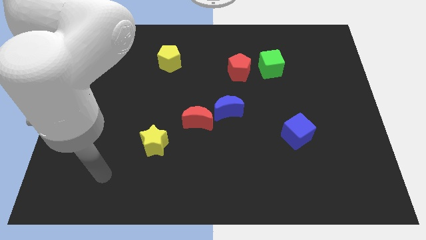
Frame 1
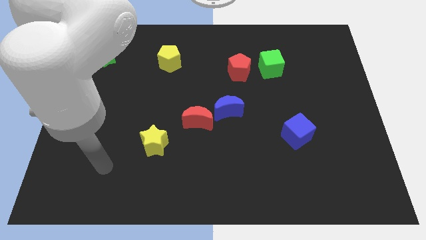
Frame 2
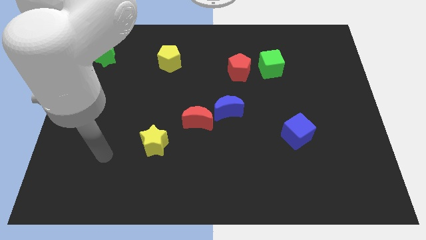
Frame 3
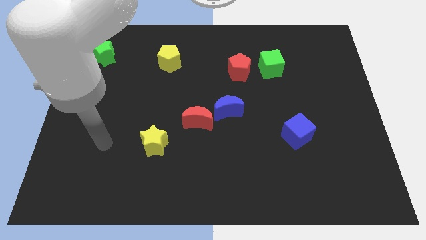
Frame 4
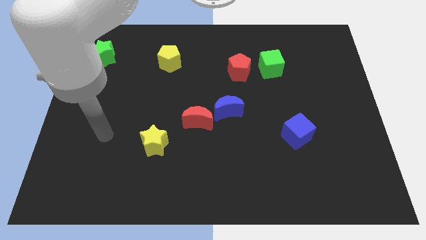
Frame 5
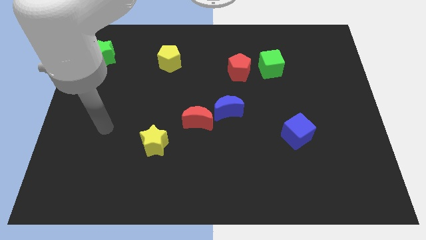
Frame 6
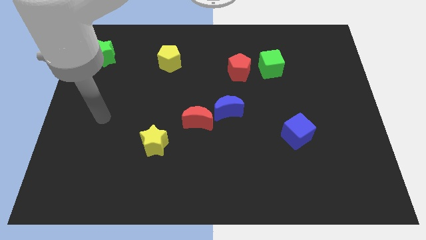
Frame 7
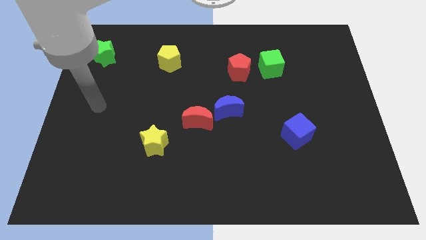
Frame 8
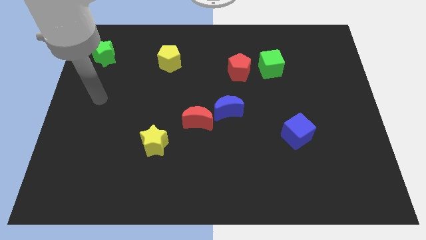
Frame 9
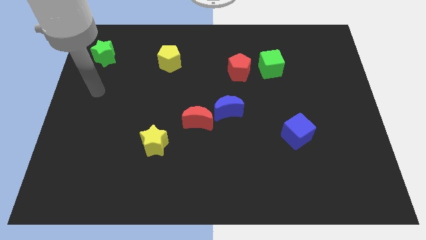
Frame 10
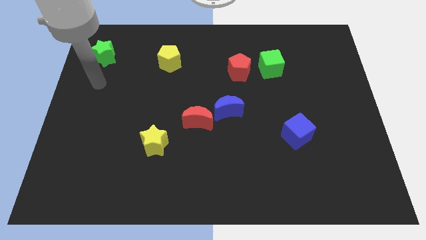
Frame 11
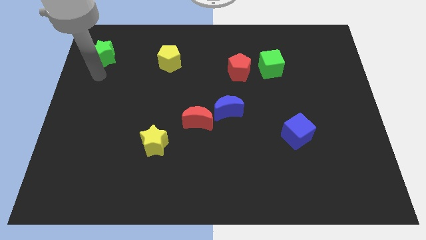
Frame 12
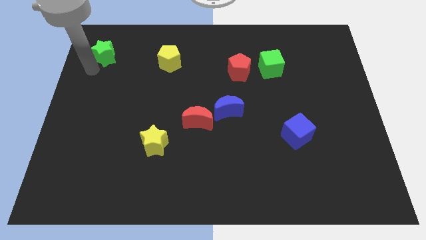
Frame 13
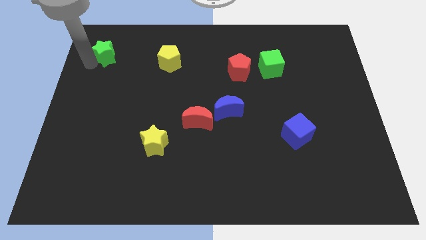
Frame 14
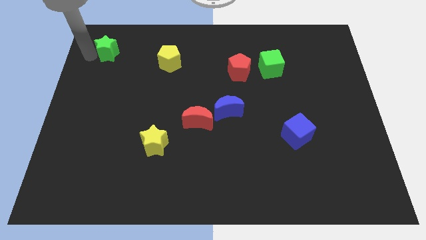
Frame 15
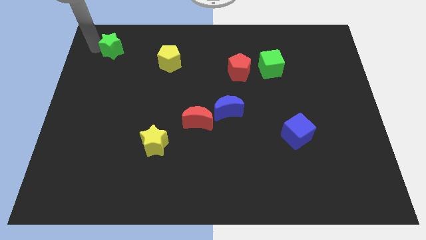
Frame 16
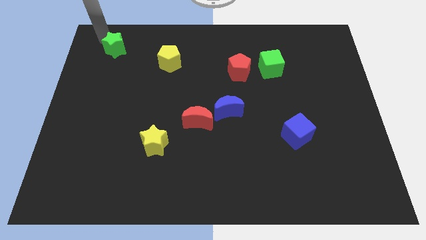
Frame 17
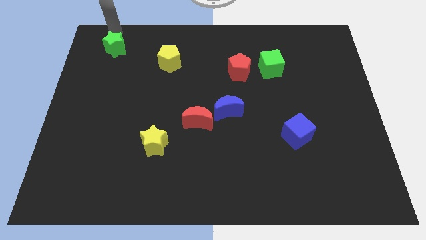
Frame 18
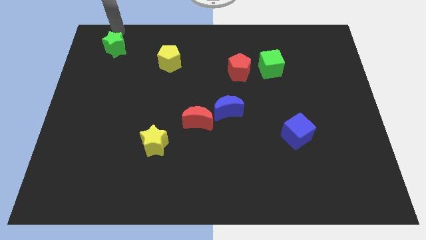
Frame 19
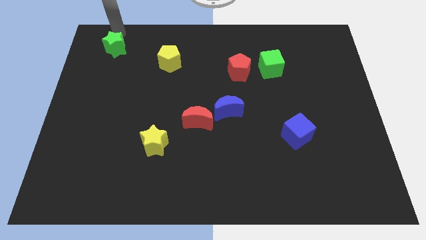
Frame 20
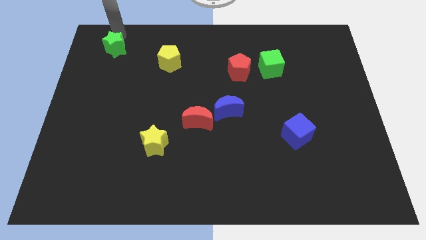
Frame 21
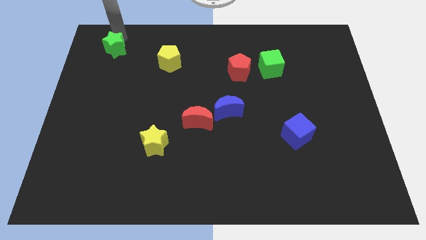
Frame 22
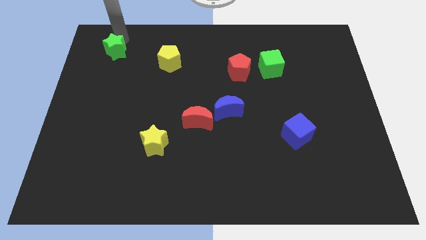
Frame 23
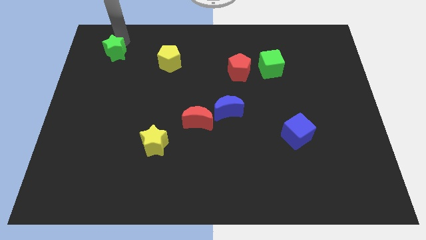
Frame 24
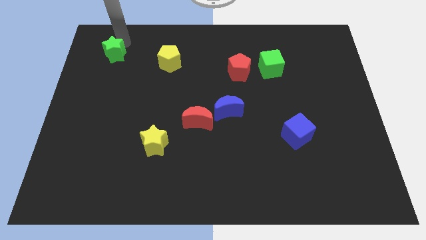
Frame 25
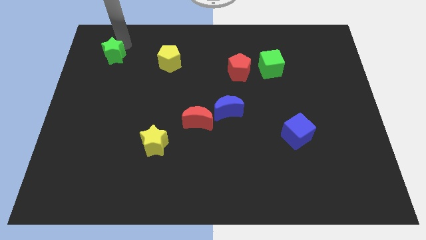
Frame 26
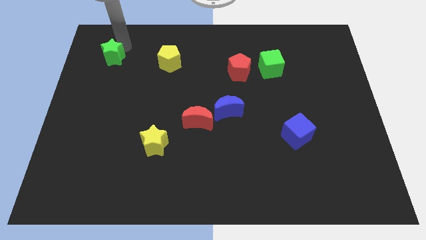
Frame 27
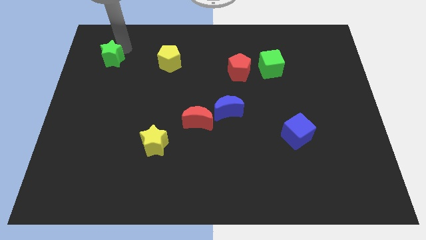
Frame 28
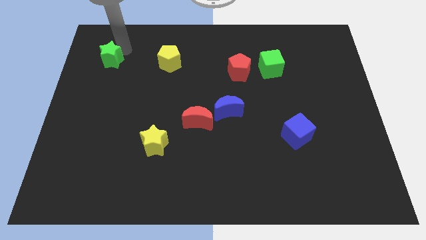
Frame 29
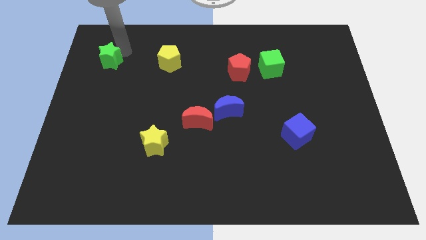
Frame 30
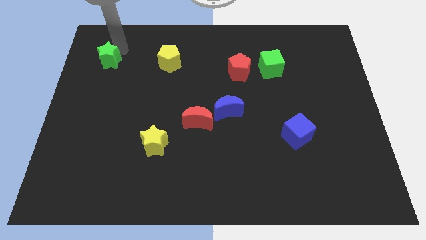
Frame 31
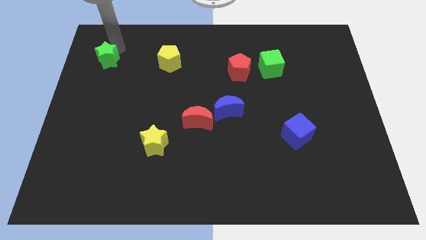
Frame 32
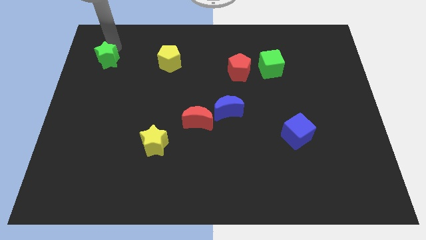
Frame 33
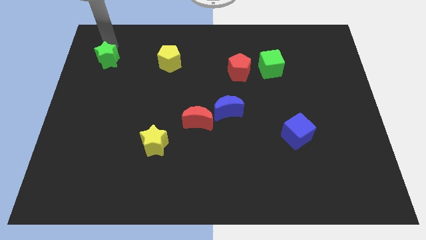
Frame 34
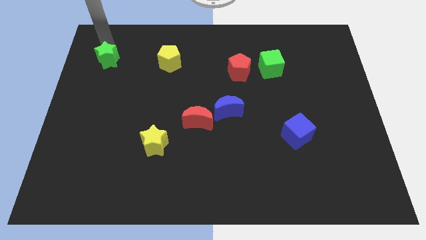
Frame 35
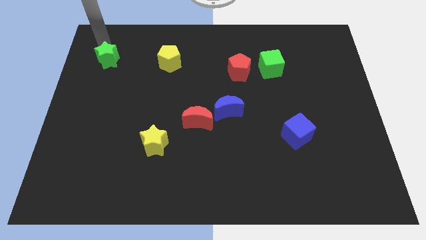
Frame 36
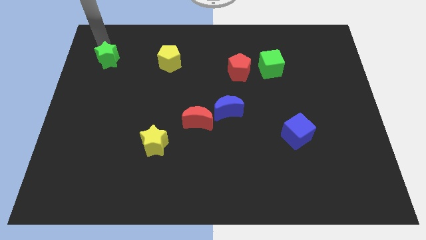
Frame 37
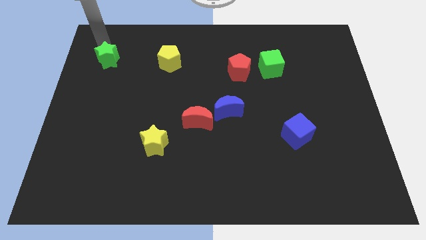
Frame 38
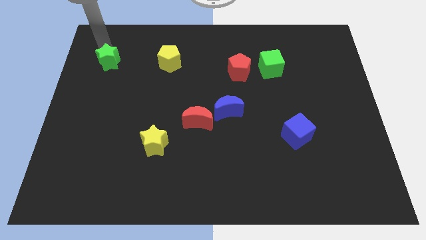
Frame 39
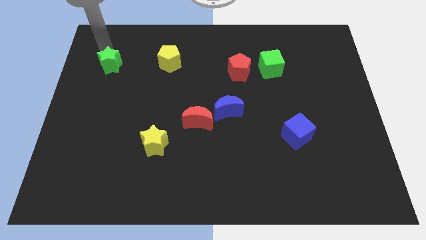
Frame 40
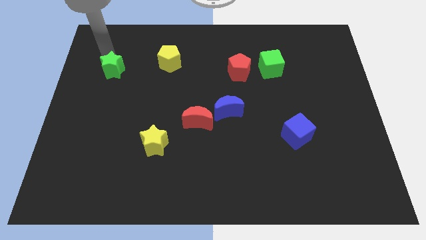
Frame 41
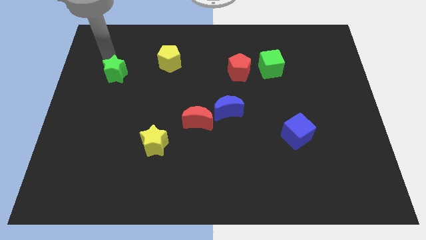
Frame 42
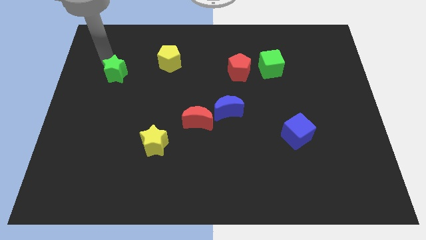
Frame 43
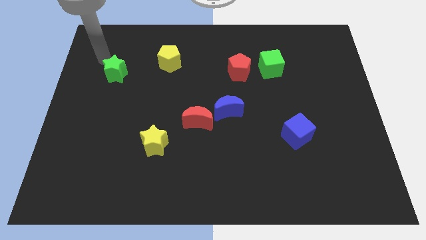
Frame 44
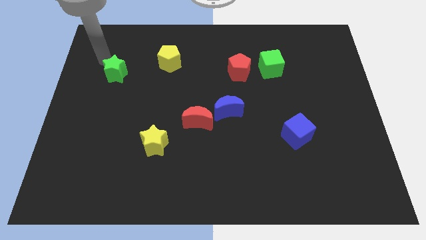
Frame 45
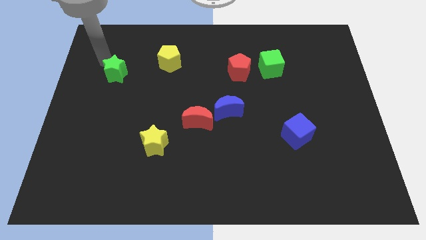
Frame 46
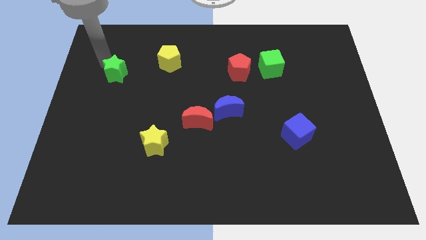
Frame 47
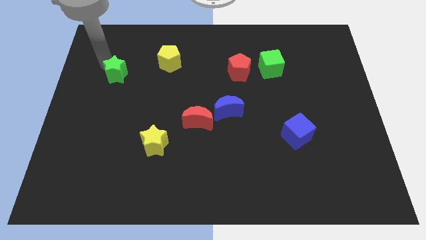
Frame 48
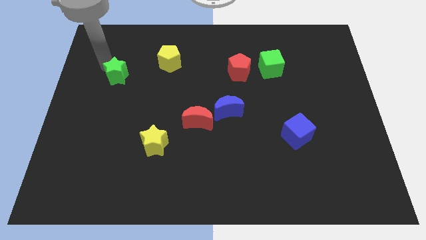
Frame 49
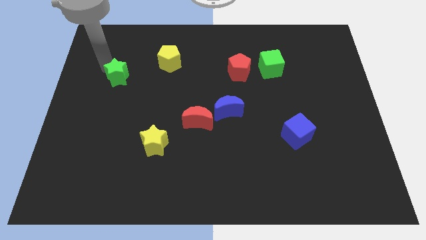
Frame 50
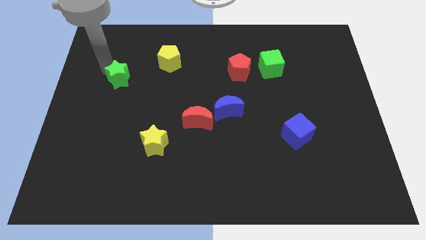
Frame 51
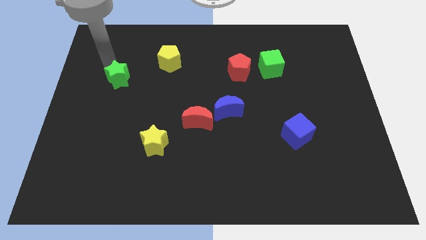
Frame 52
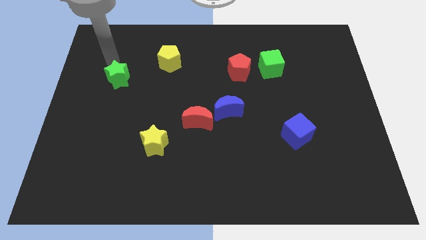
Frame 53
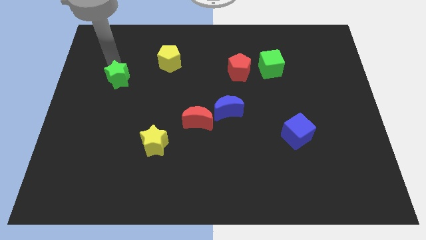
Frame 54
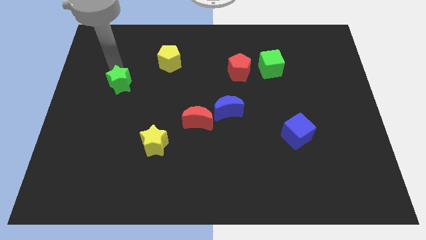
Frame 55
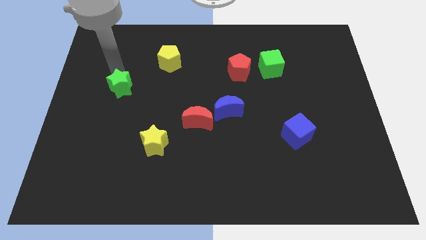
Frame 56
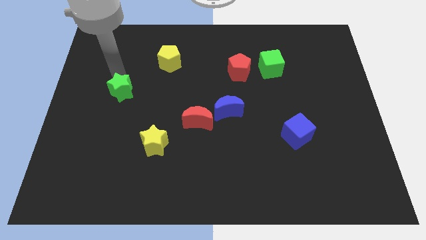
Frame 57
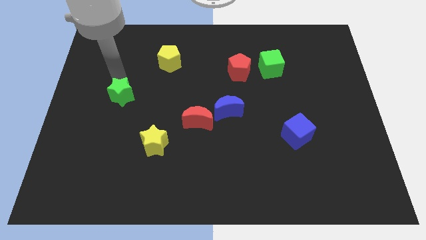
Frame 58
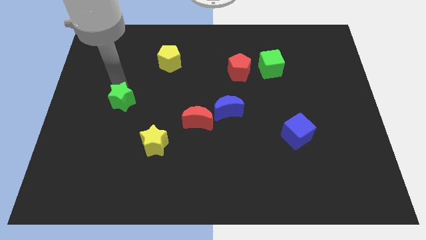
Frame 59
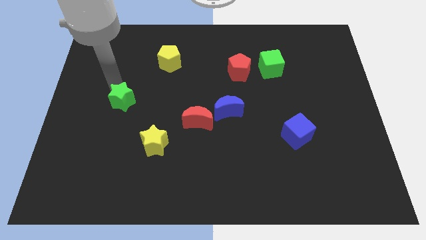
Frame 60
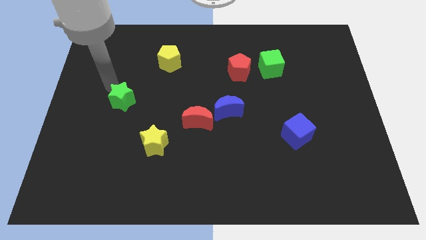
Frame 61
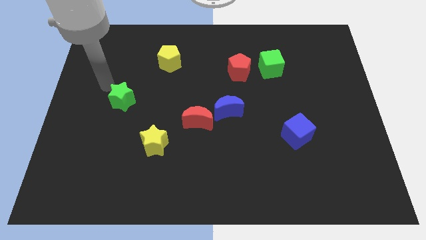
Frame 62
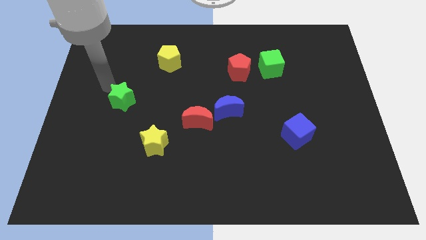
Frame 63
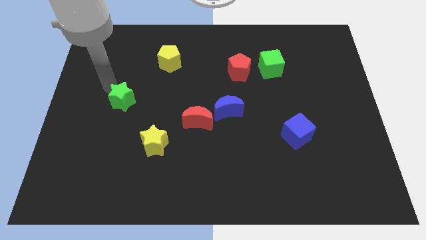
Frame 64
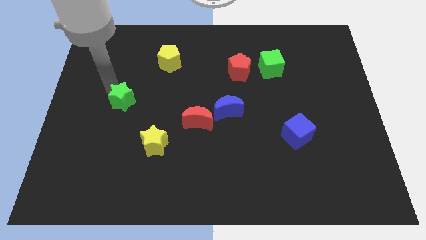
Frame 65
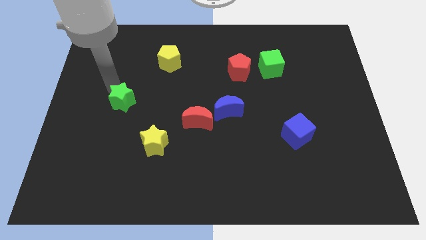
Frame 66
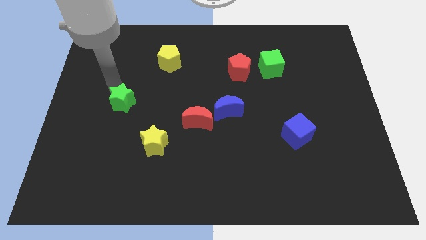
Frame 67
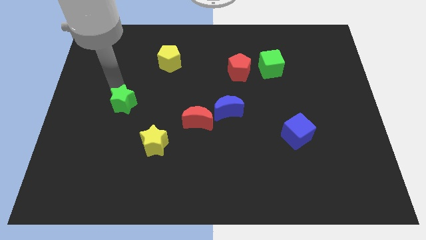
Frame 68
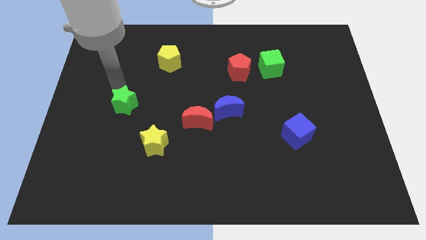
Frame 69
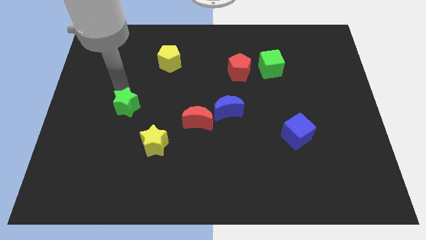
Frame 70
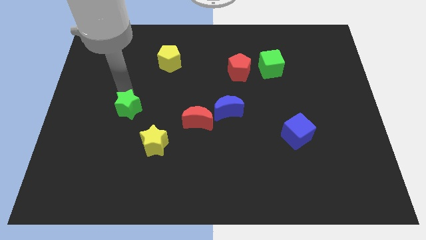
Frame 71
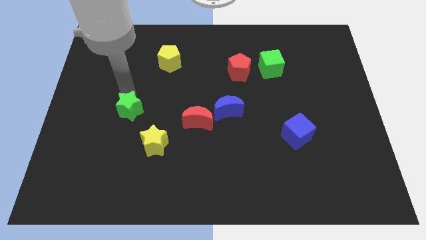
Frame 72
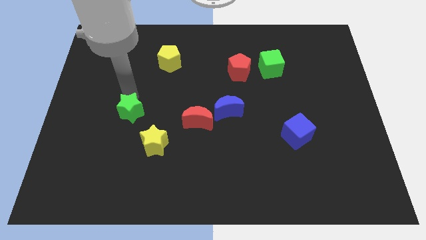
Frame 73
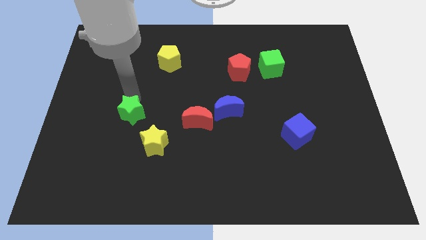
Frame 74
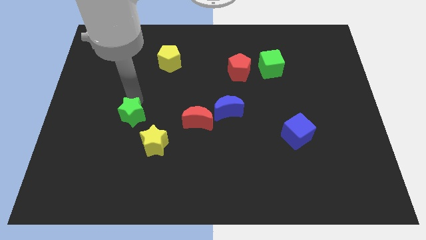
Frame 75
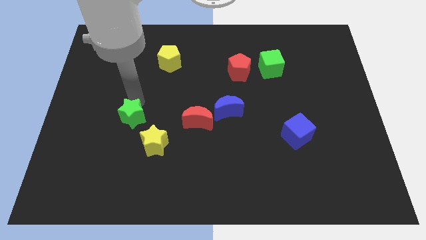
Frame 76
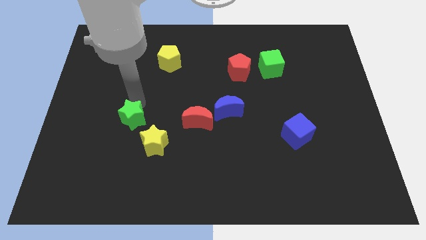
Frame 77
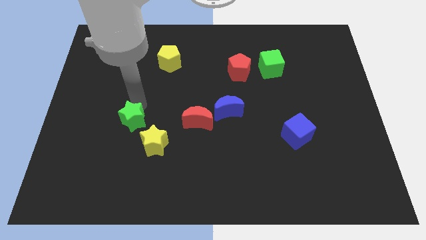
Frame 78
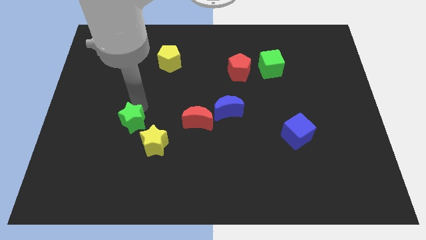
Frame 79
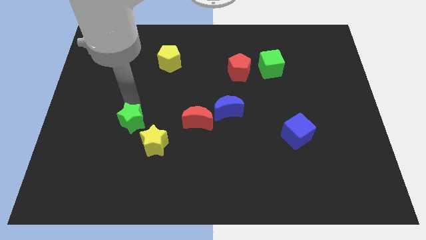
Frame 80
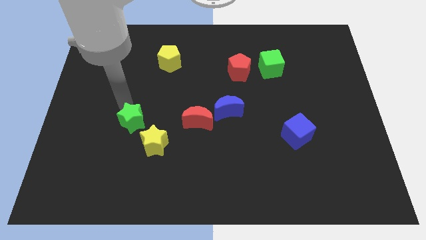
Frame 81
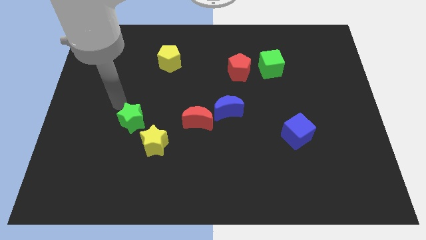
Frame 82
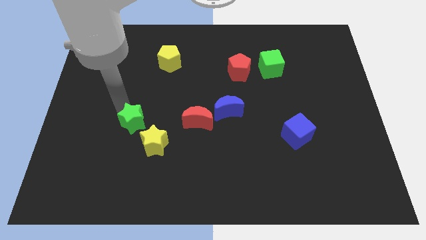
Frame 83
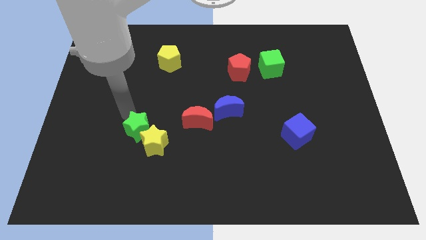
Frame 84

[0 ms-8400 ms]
move the green star to the yellow star
